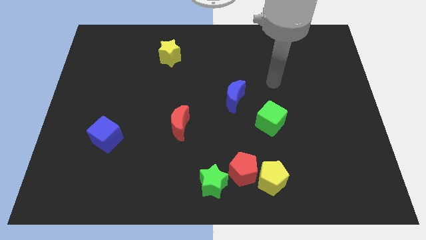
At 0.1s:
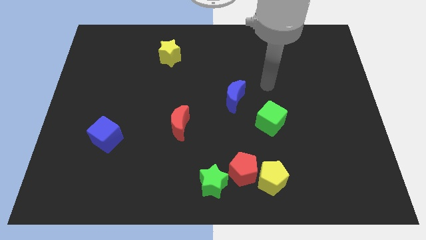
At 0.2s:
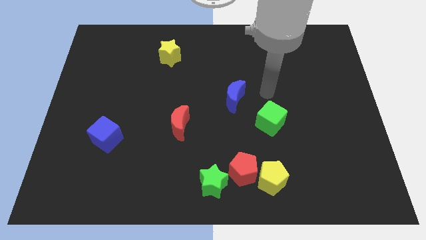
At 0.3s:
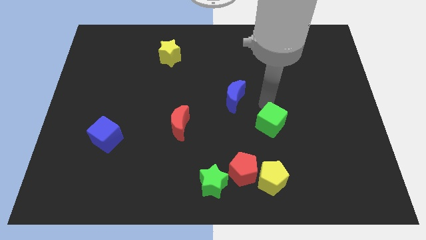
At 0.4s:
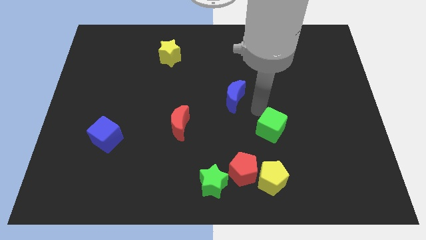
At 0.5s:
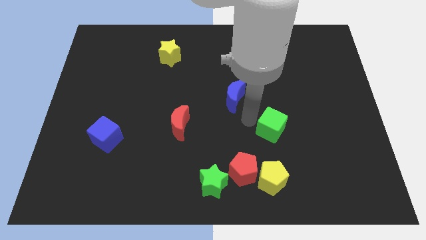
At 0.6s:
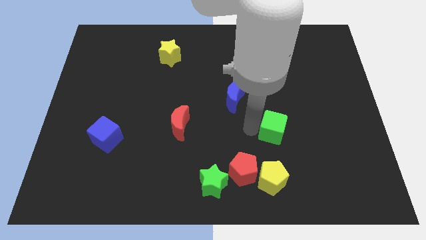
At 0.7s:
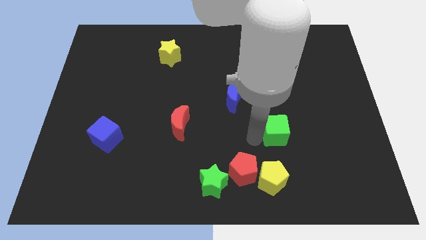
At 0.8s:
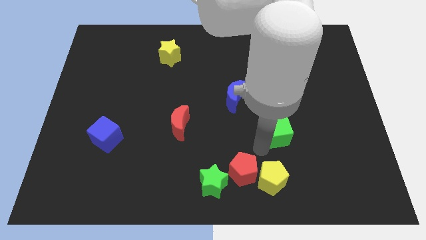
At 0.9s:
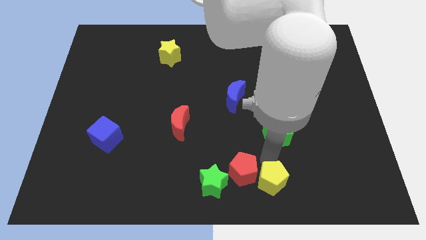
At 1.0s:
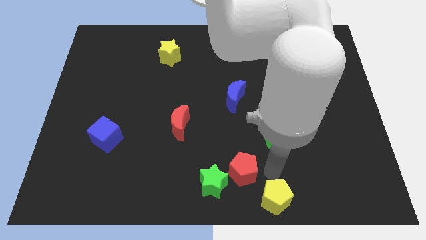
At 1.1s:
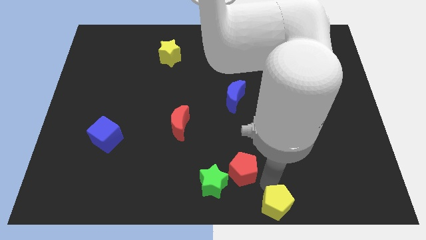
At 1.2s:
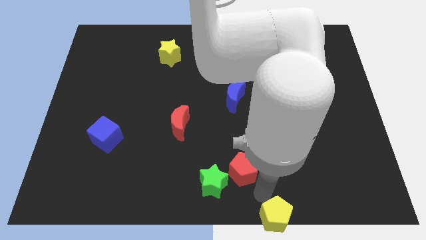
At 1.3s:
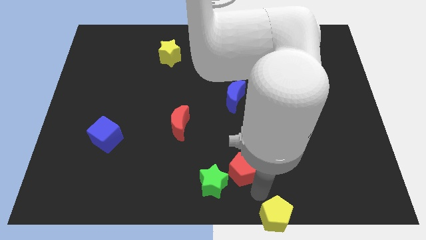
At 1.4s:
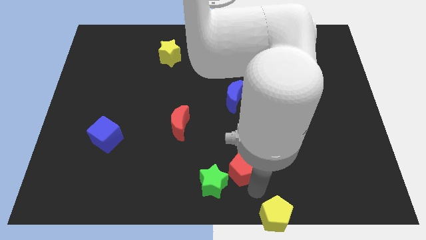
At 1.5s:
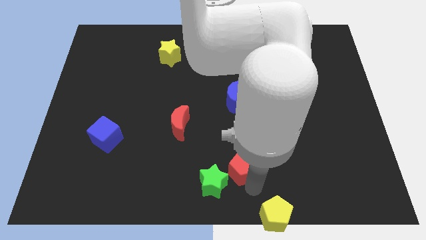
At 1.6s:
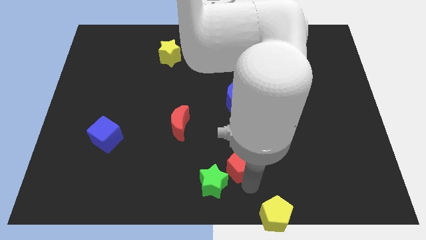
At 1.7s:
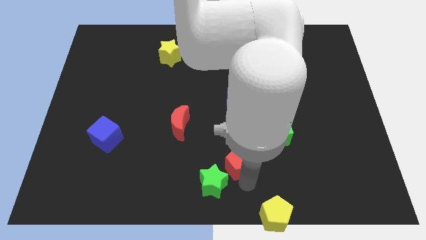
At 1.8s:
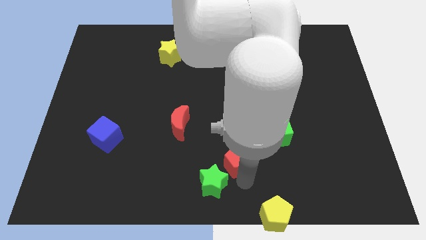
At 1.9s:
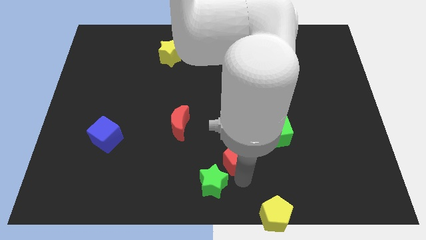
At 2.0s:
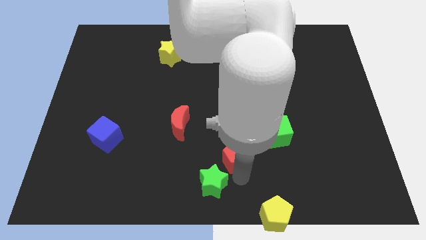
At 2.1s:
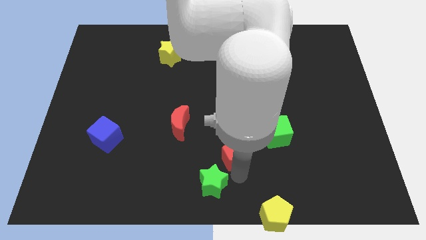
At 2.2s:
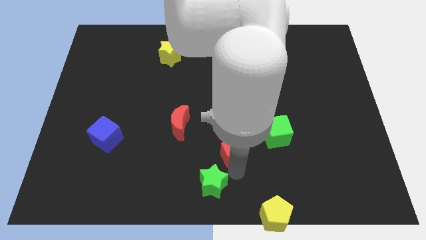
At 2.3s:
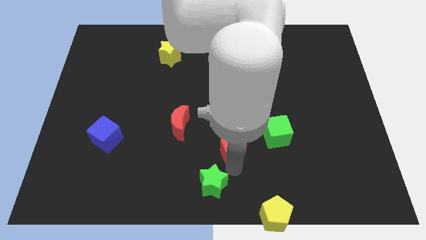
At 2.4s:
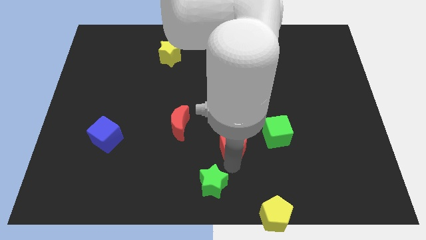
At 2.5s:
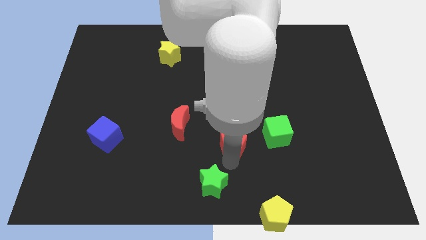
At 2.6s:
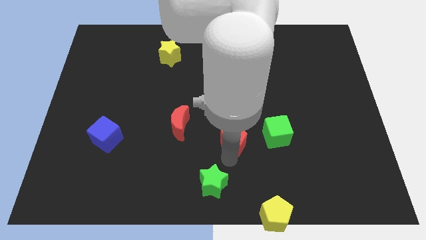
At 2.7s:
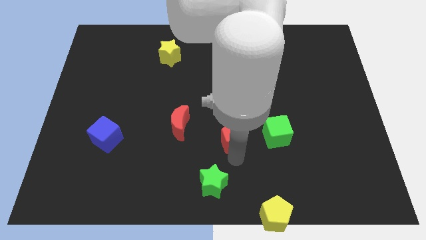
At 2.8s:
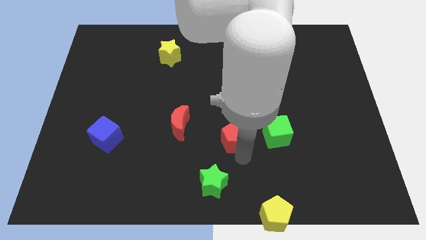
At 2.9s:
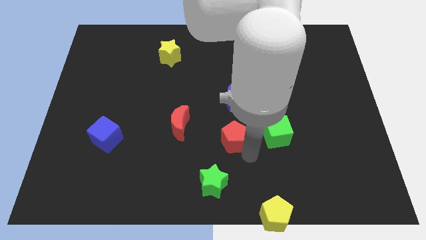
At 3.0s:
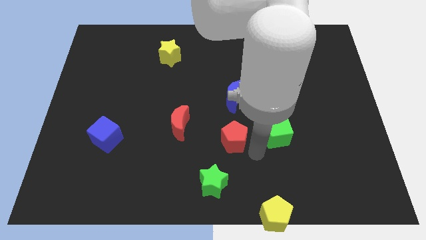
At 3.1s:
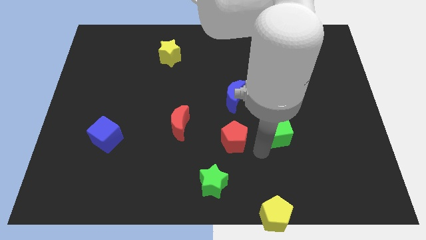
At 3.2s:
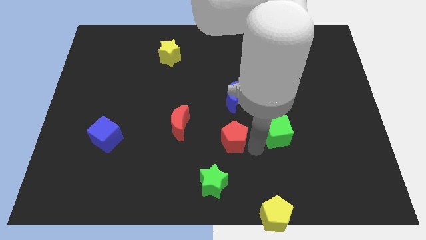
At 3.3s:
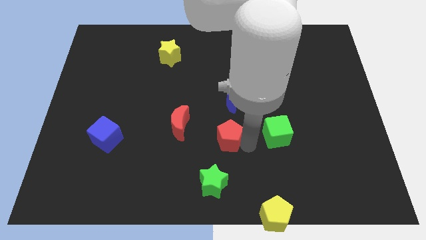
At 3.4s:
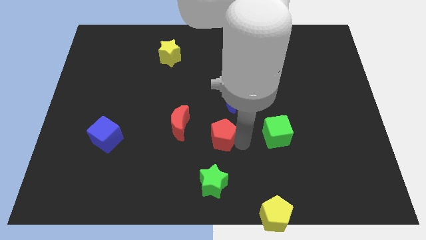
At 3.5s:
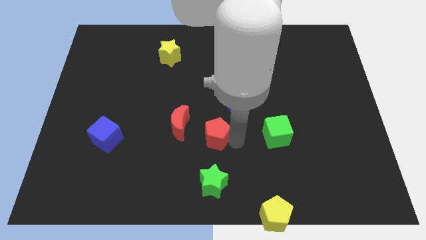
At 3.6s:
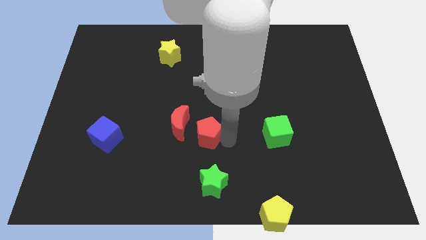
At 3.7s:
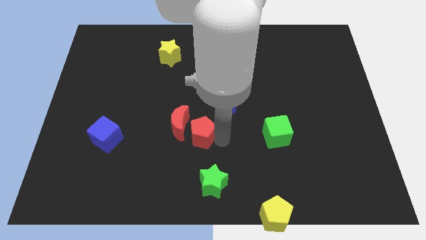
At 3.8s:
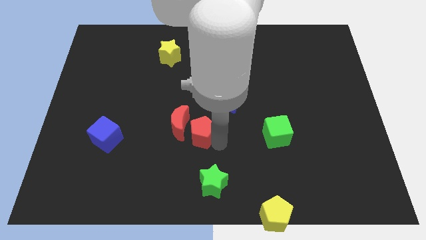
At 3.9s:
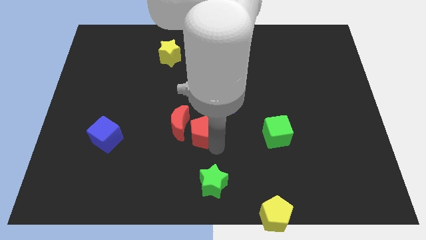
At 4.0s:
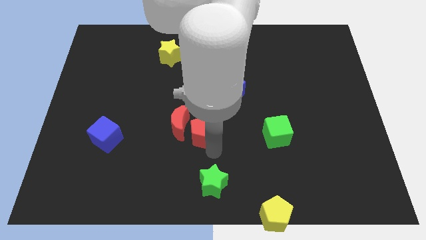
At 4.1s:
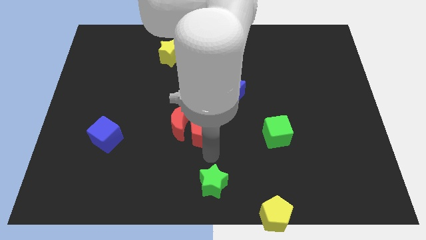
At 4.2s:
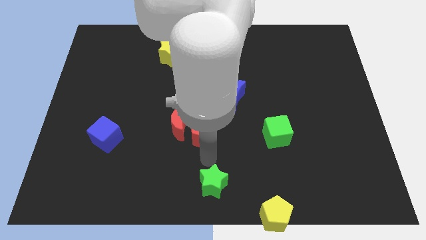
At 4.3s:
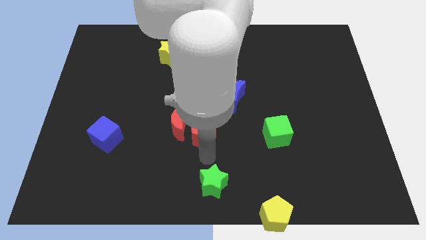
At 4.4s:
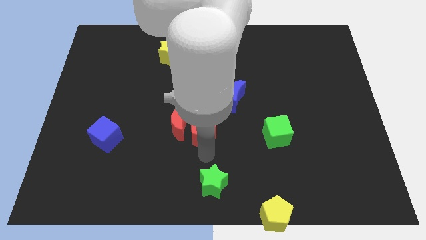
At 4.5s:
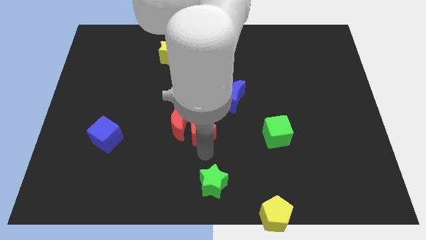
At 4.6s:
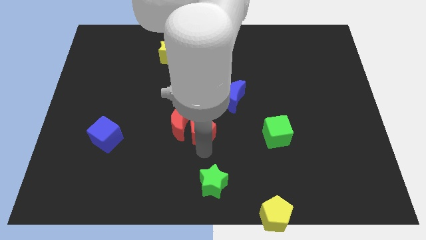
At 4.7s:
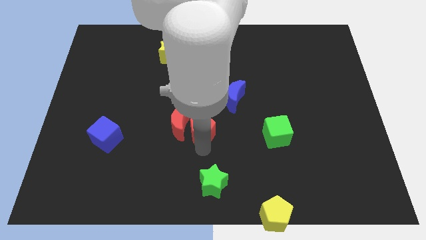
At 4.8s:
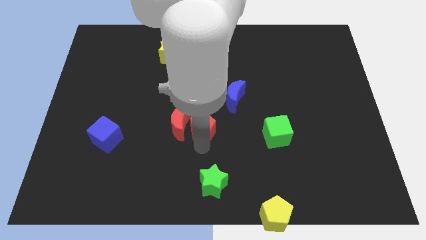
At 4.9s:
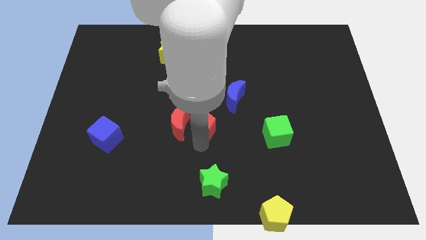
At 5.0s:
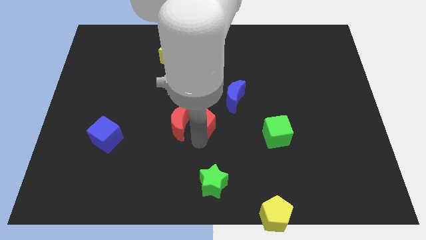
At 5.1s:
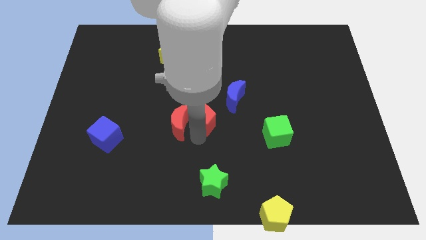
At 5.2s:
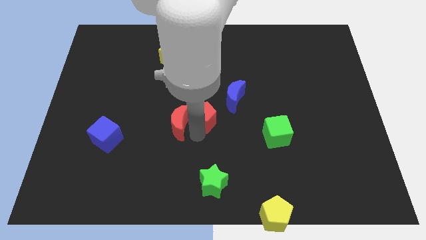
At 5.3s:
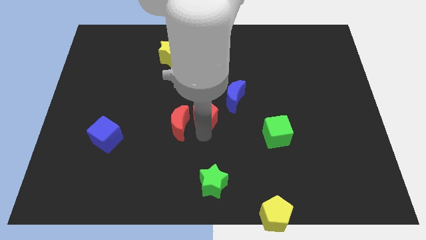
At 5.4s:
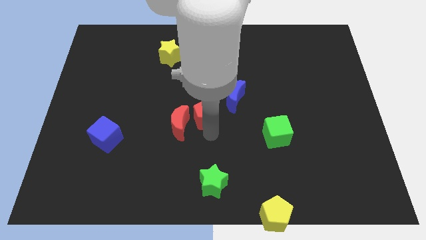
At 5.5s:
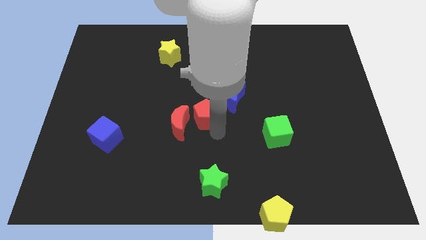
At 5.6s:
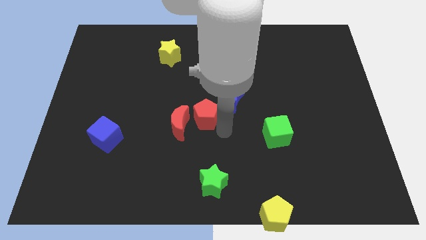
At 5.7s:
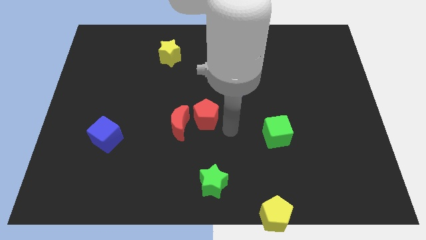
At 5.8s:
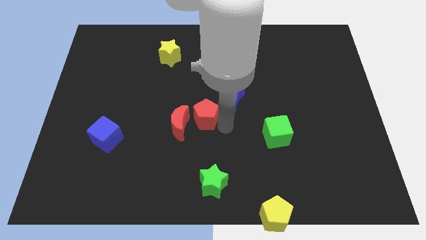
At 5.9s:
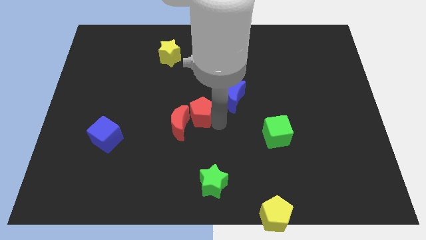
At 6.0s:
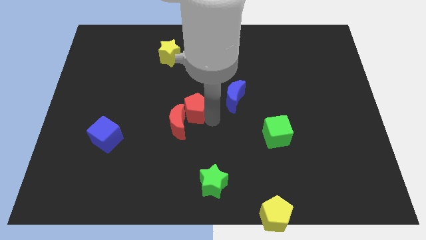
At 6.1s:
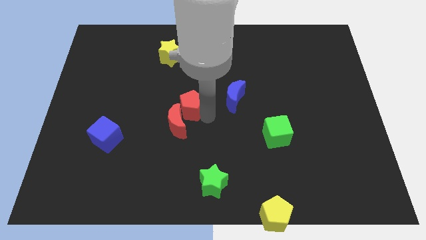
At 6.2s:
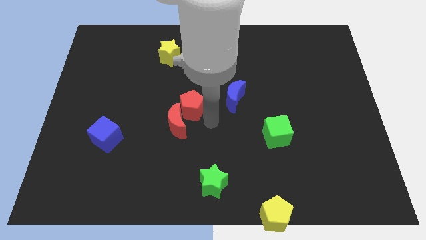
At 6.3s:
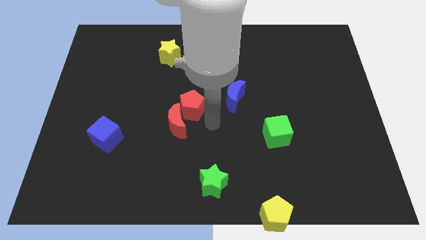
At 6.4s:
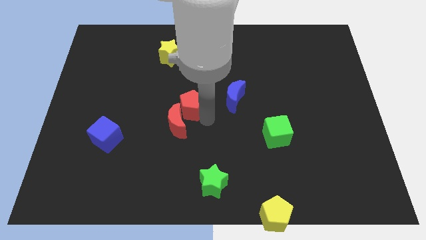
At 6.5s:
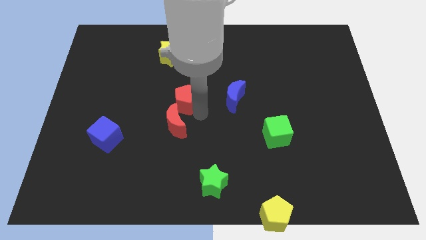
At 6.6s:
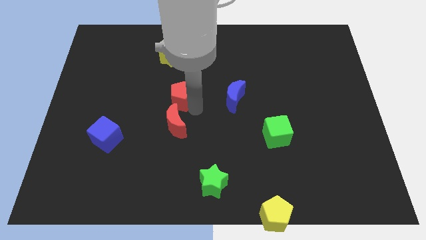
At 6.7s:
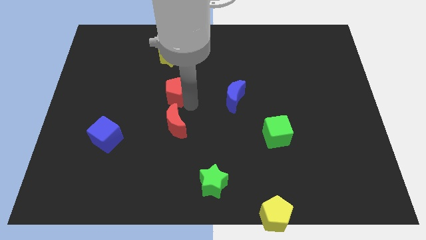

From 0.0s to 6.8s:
move the red pentagon to the bottom of the yellow star
